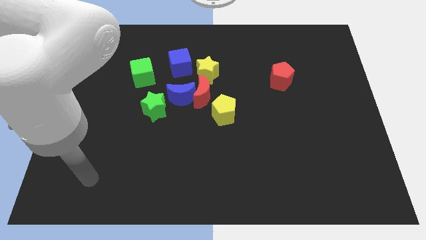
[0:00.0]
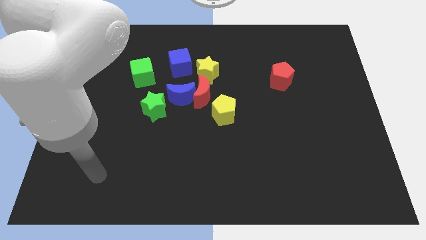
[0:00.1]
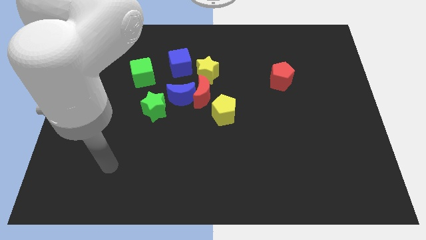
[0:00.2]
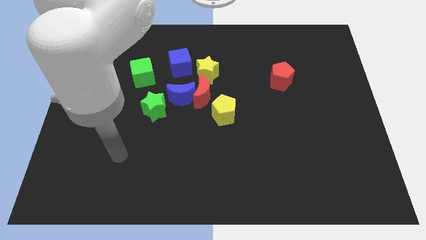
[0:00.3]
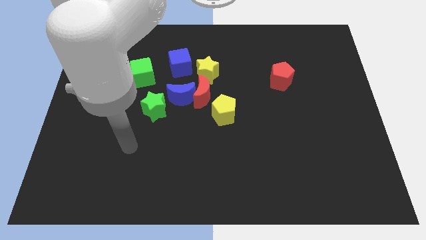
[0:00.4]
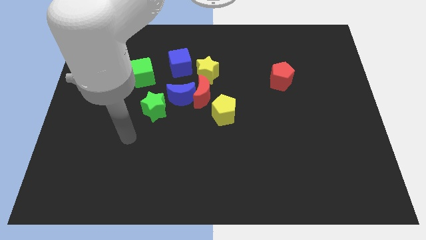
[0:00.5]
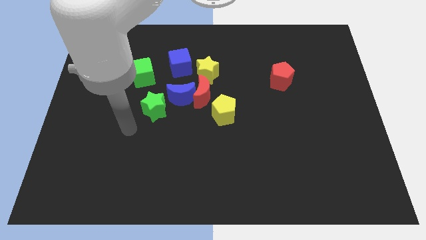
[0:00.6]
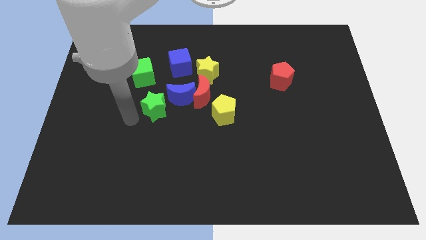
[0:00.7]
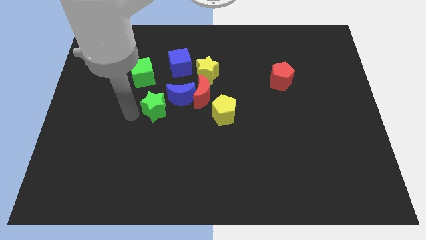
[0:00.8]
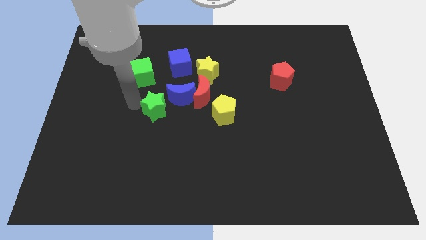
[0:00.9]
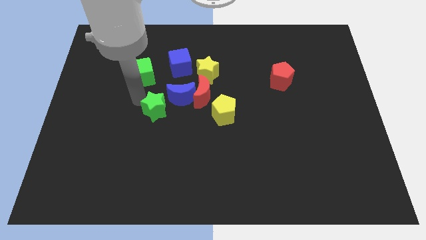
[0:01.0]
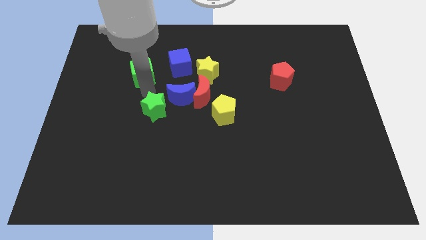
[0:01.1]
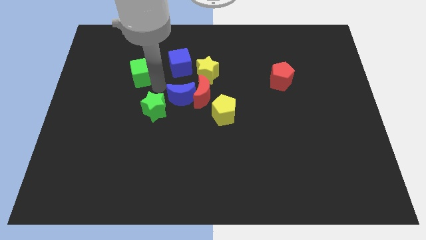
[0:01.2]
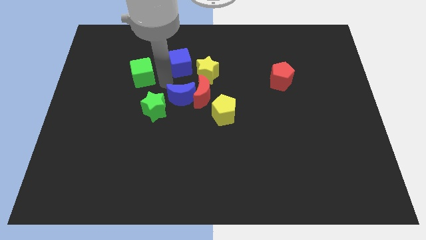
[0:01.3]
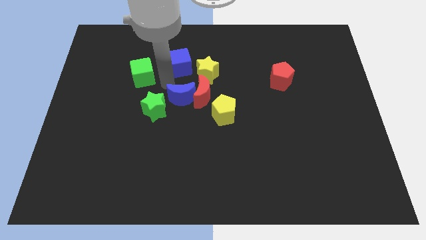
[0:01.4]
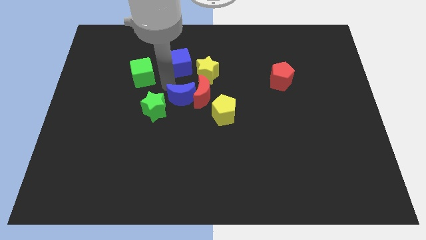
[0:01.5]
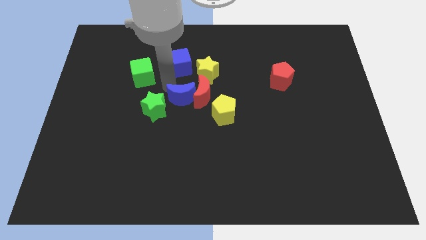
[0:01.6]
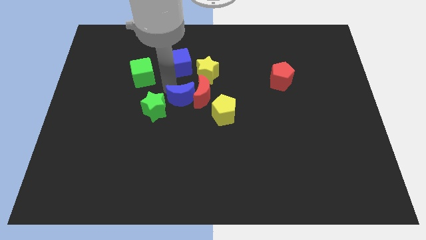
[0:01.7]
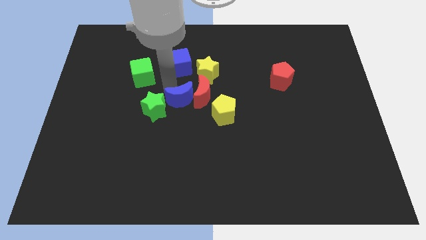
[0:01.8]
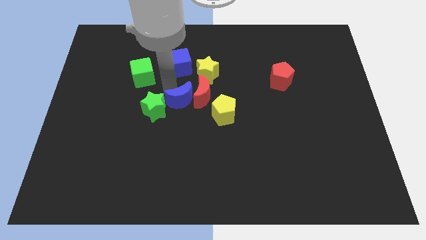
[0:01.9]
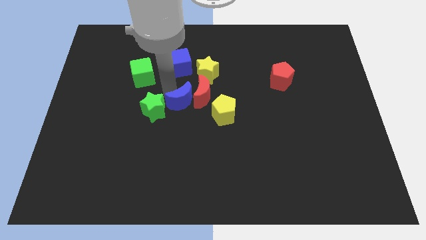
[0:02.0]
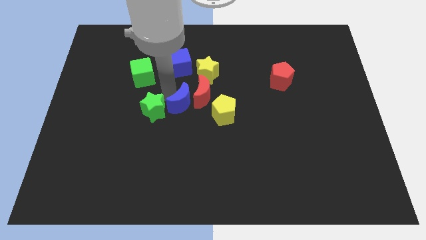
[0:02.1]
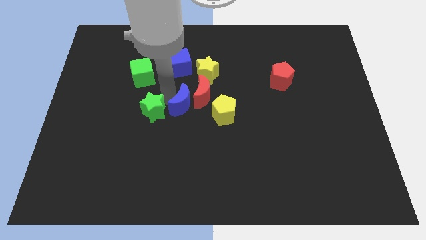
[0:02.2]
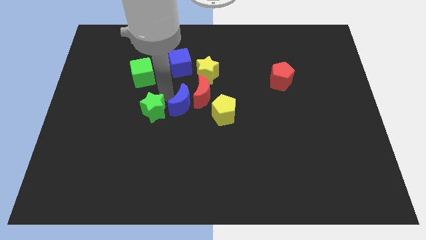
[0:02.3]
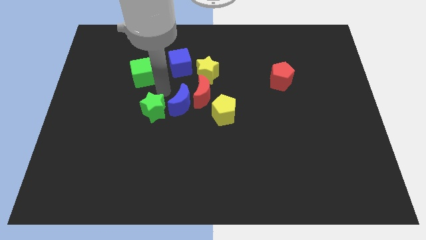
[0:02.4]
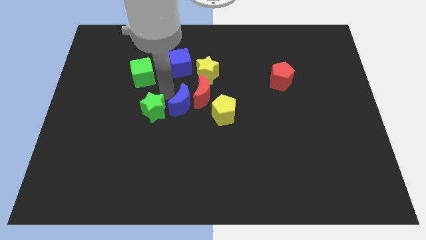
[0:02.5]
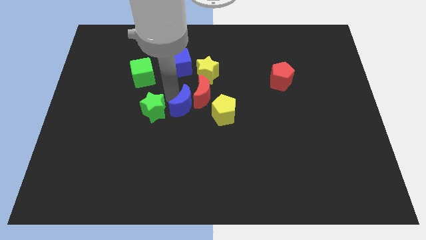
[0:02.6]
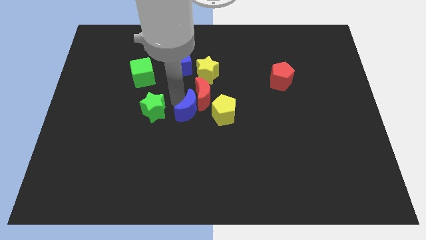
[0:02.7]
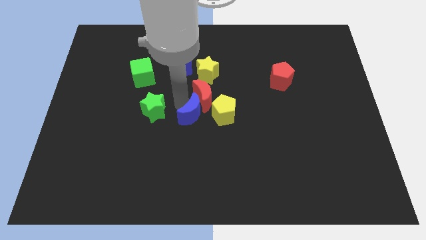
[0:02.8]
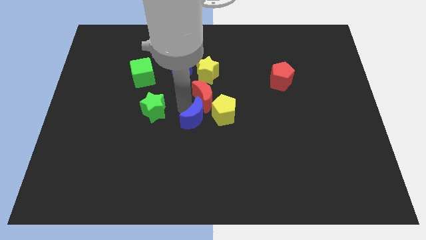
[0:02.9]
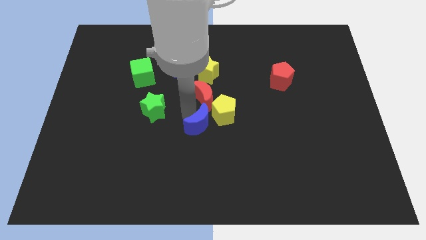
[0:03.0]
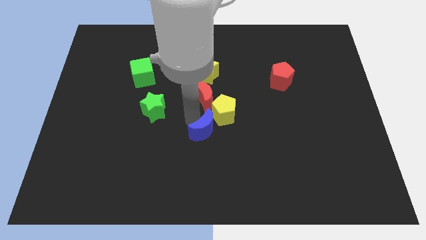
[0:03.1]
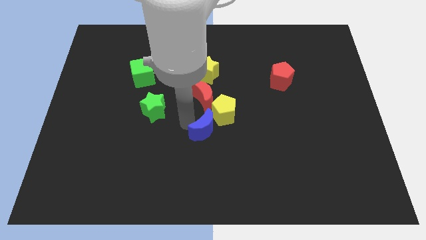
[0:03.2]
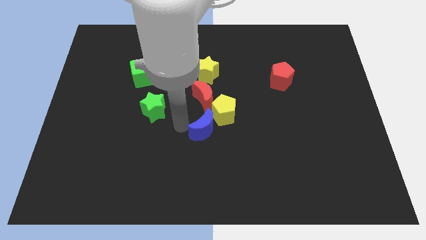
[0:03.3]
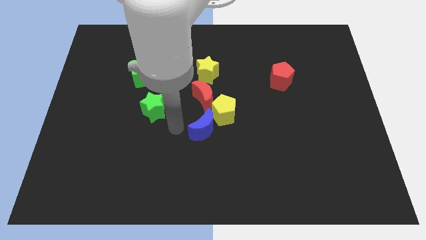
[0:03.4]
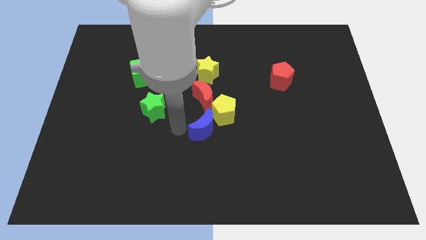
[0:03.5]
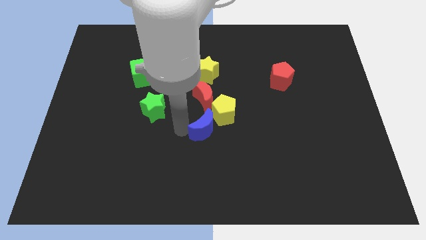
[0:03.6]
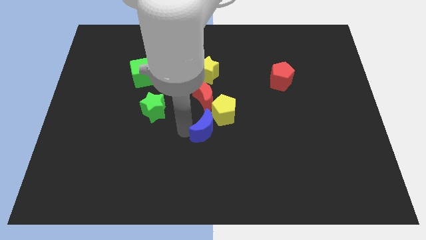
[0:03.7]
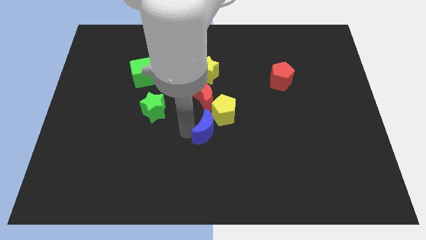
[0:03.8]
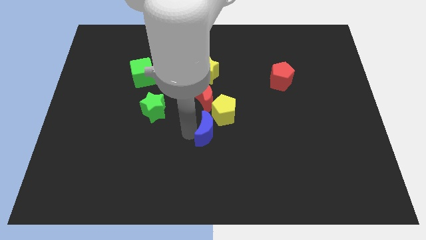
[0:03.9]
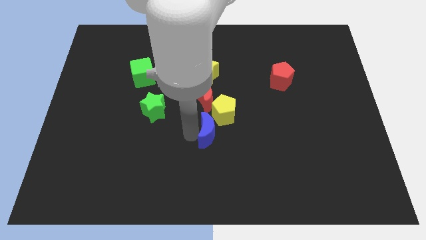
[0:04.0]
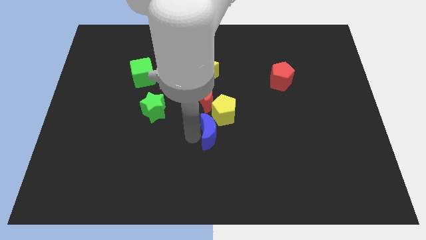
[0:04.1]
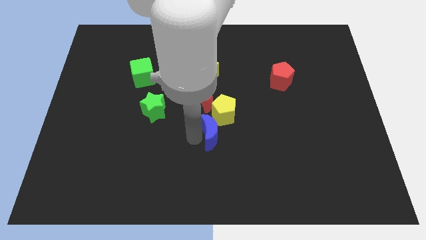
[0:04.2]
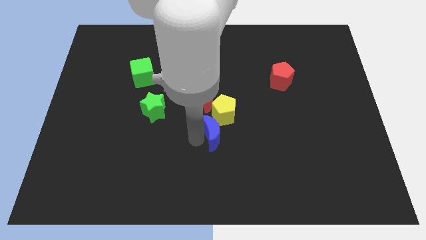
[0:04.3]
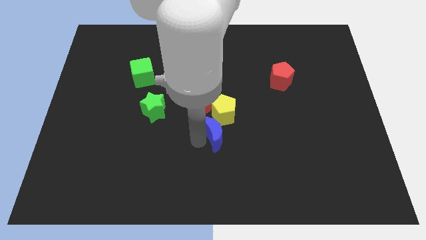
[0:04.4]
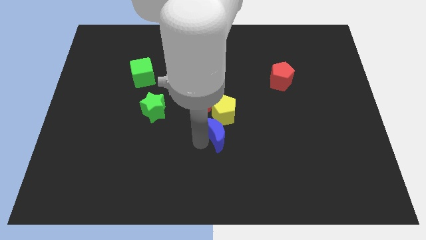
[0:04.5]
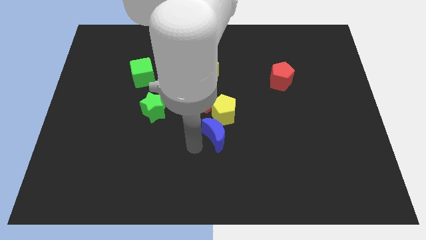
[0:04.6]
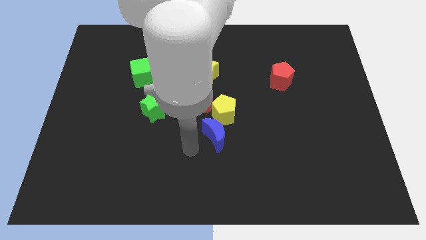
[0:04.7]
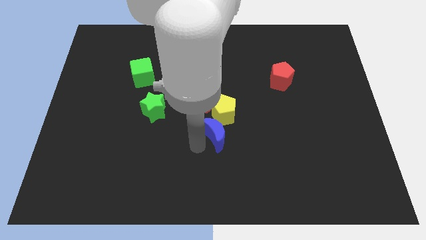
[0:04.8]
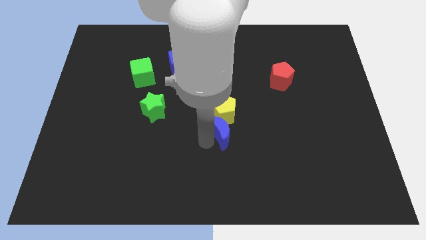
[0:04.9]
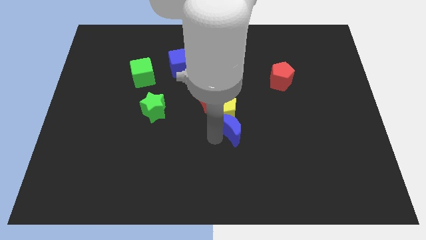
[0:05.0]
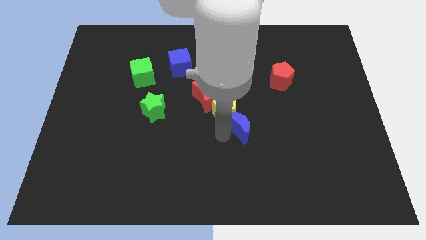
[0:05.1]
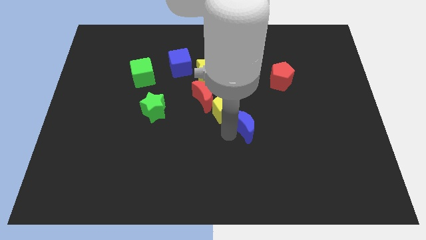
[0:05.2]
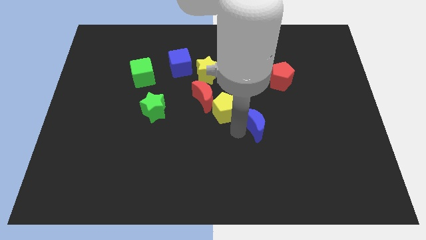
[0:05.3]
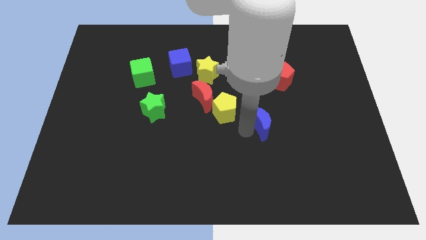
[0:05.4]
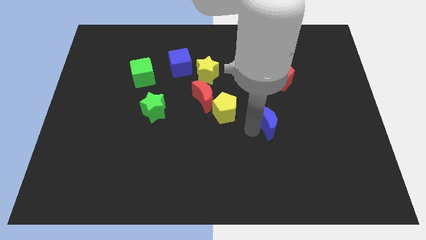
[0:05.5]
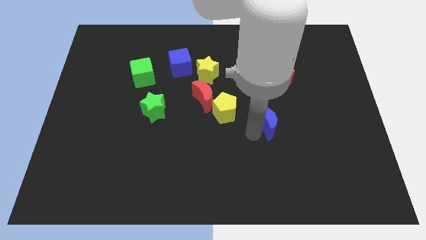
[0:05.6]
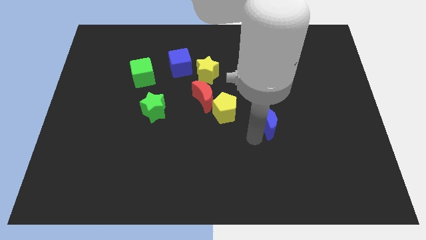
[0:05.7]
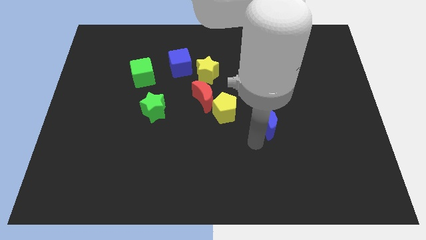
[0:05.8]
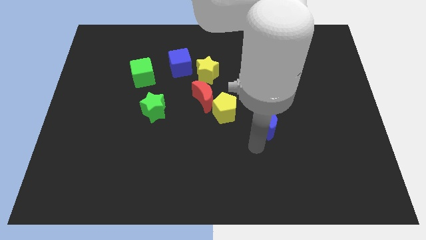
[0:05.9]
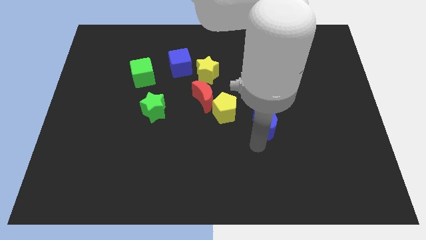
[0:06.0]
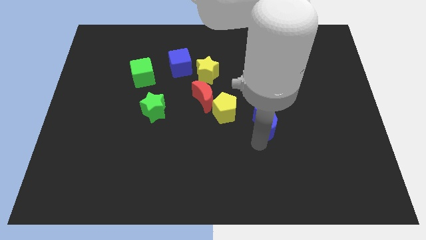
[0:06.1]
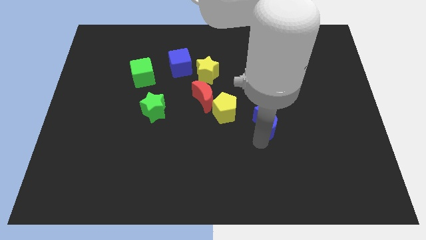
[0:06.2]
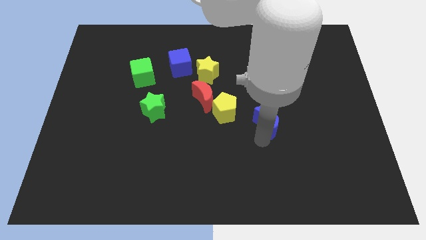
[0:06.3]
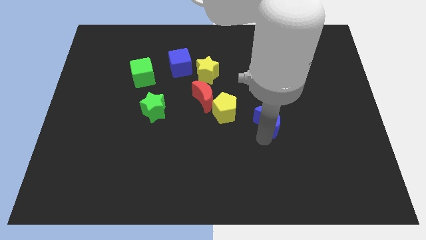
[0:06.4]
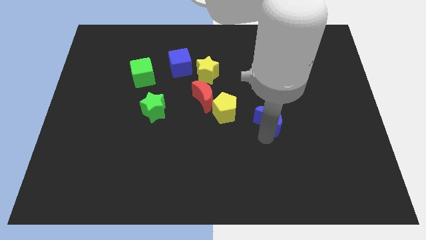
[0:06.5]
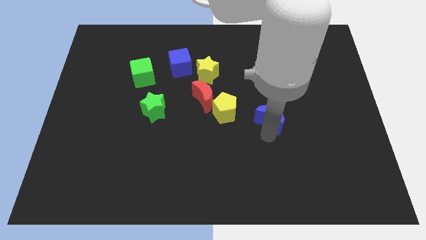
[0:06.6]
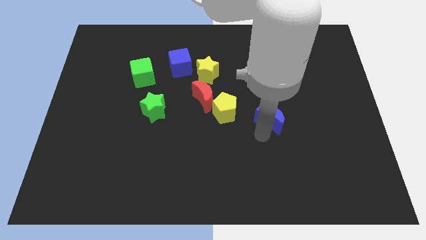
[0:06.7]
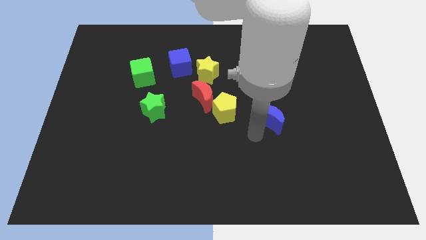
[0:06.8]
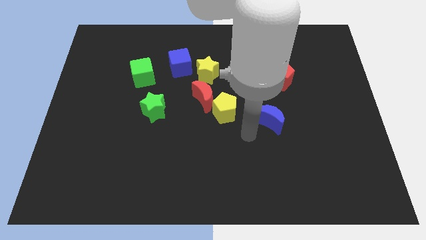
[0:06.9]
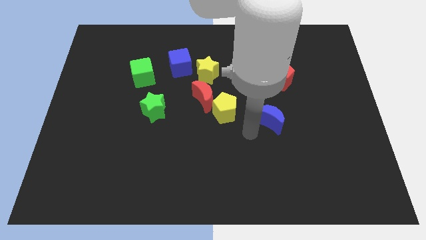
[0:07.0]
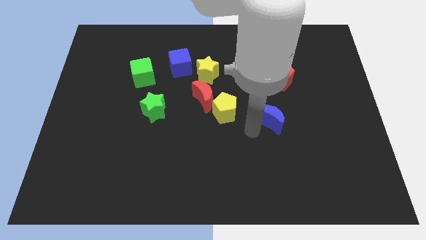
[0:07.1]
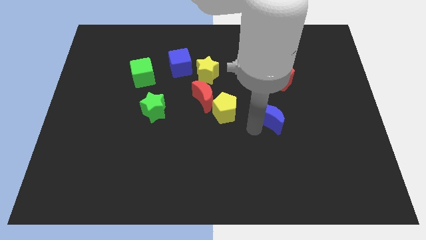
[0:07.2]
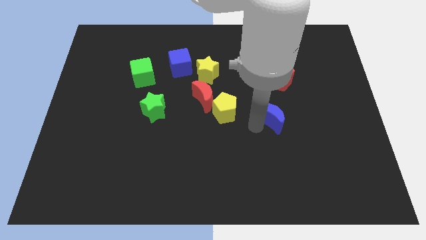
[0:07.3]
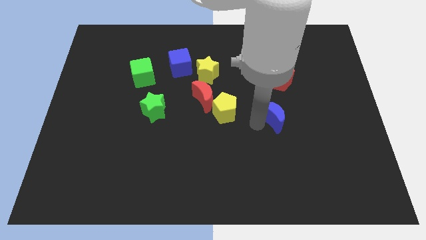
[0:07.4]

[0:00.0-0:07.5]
move the blue moon to the right
